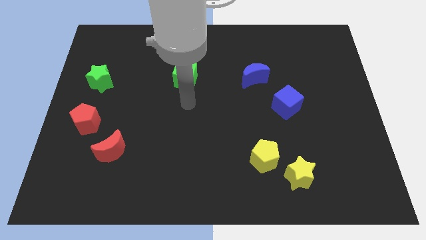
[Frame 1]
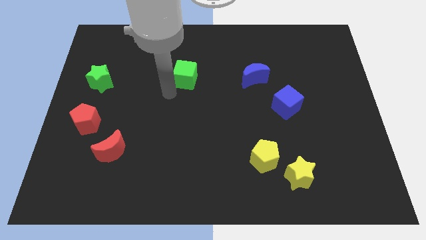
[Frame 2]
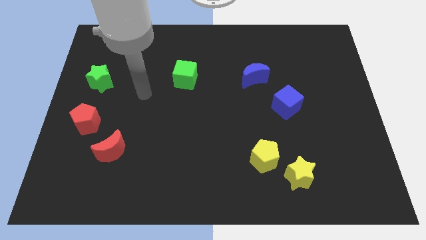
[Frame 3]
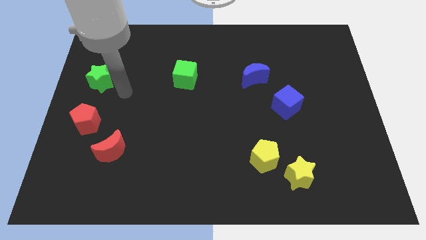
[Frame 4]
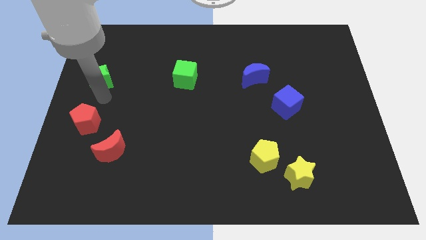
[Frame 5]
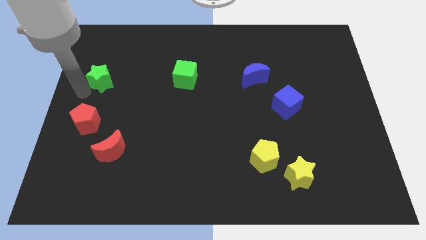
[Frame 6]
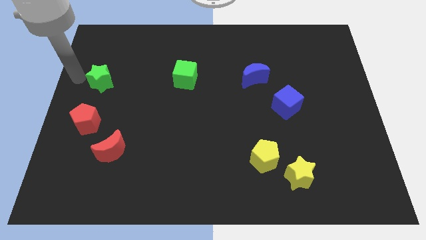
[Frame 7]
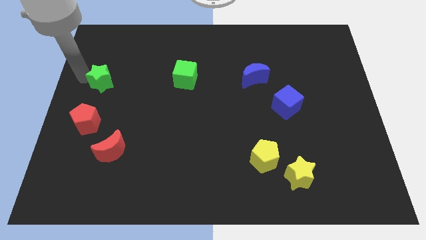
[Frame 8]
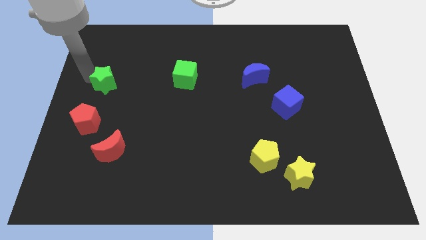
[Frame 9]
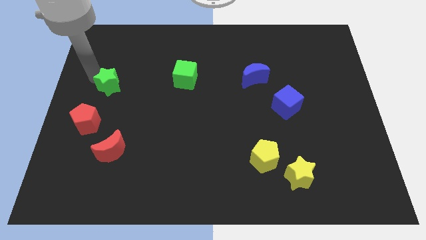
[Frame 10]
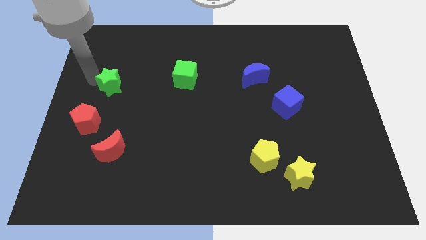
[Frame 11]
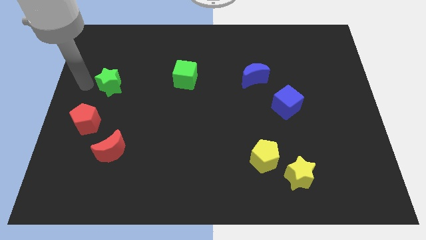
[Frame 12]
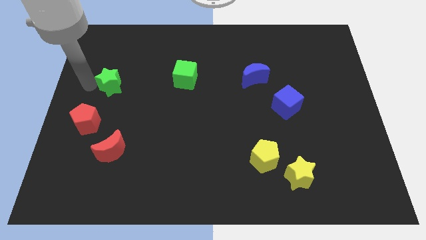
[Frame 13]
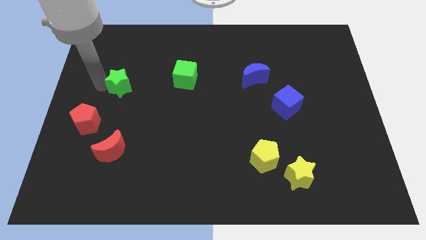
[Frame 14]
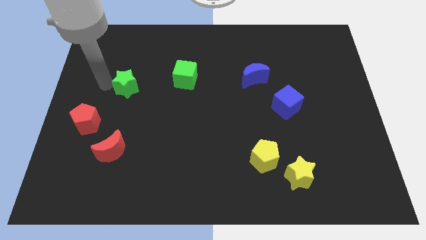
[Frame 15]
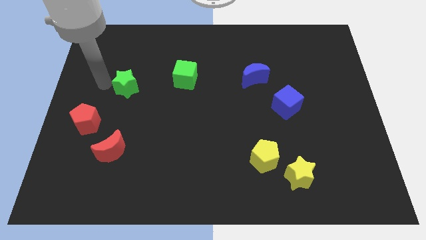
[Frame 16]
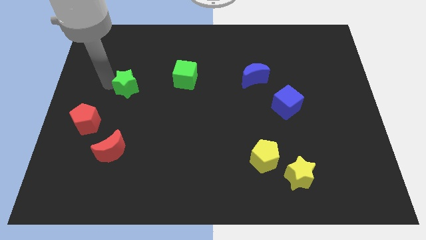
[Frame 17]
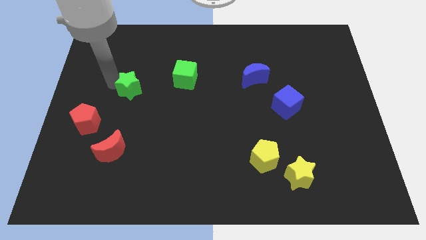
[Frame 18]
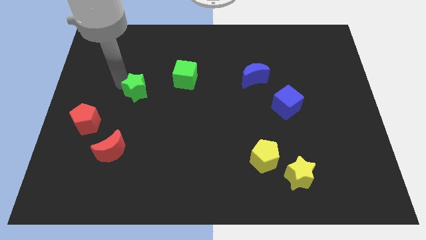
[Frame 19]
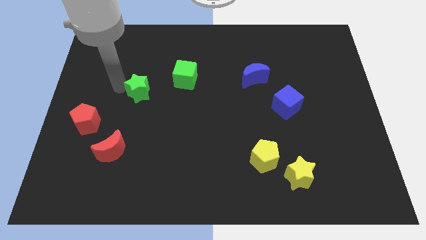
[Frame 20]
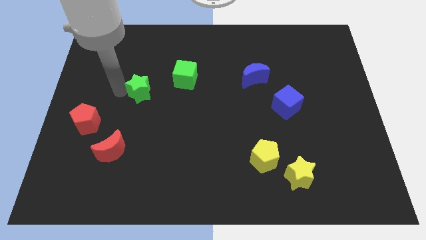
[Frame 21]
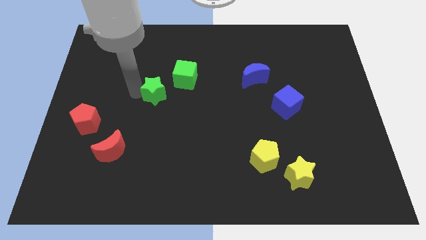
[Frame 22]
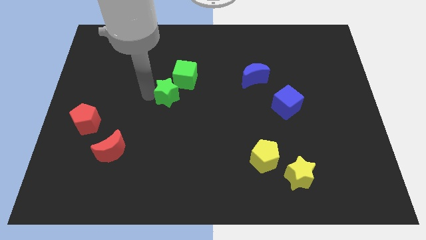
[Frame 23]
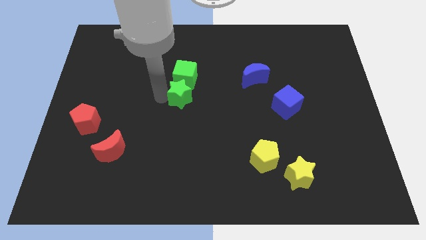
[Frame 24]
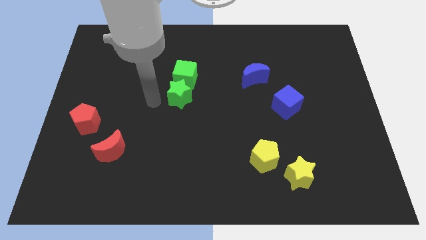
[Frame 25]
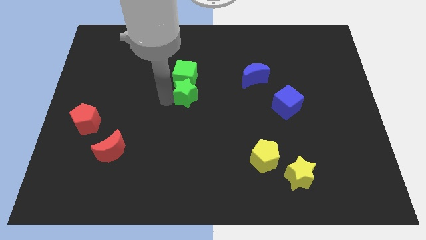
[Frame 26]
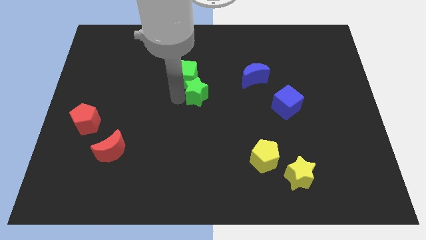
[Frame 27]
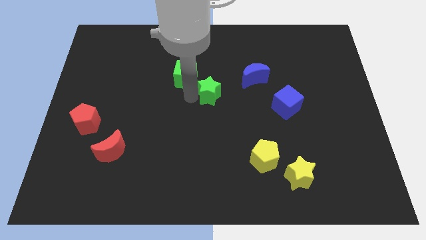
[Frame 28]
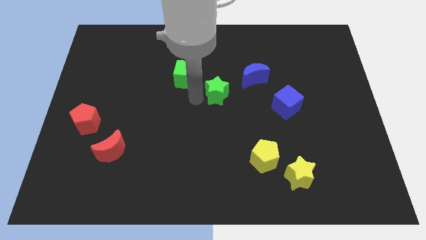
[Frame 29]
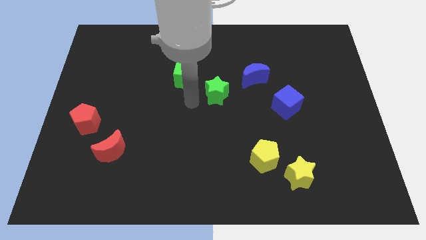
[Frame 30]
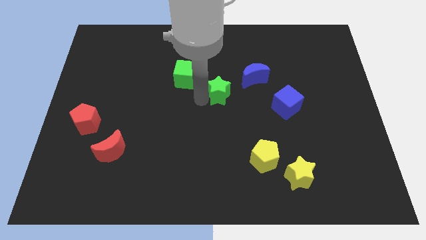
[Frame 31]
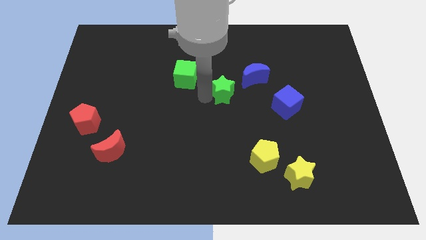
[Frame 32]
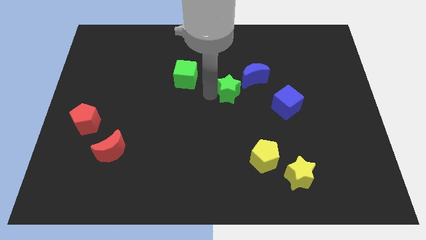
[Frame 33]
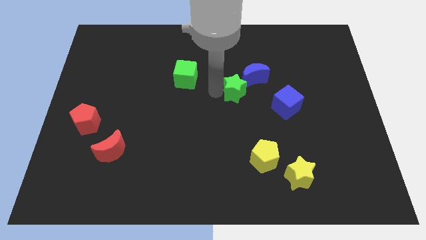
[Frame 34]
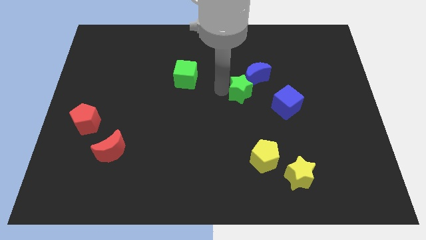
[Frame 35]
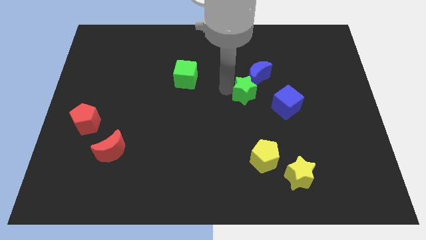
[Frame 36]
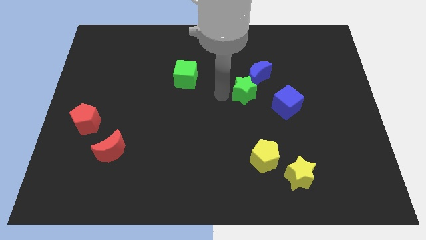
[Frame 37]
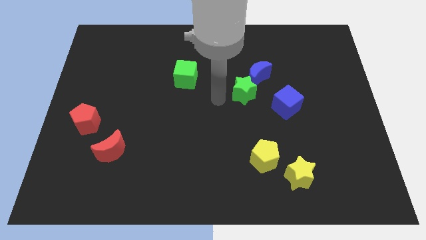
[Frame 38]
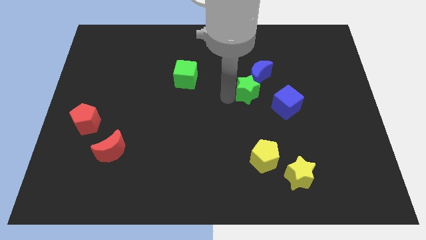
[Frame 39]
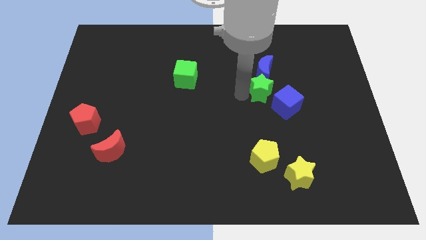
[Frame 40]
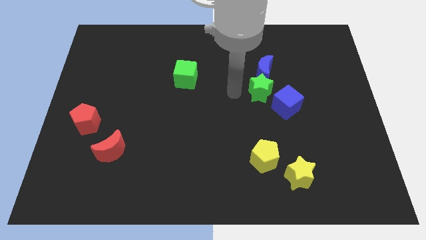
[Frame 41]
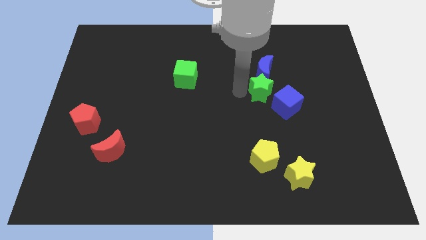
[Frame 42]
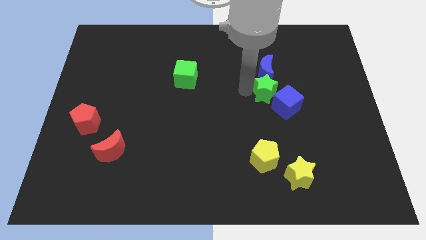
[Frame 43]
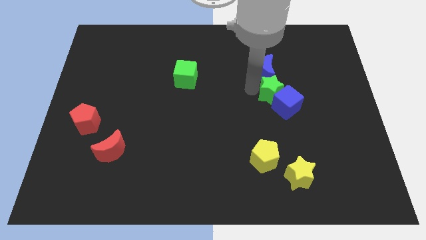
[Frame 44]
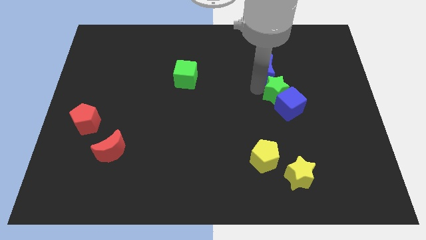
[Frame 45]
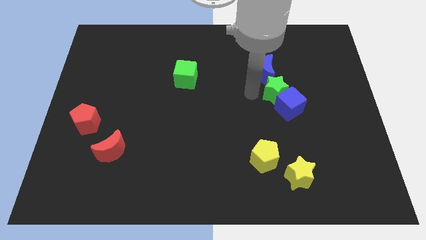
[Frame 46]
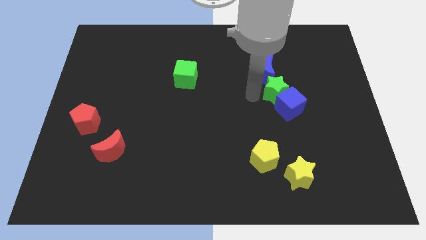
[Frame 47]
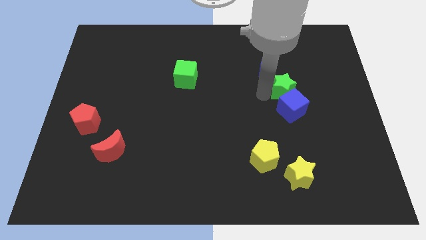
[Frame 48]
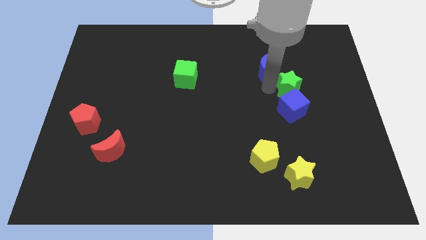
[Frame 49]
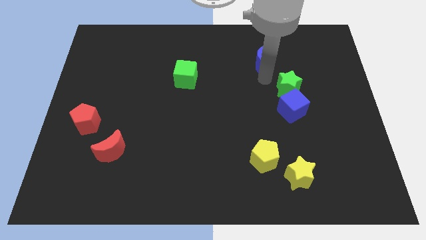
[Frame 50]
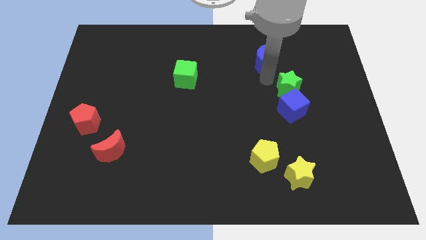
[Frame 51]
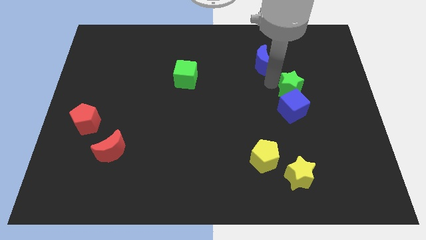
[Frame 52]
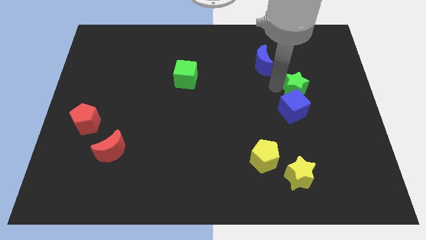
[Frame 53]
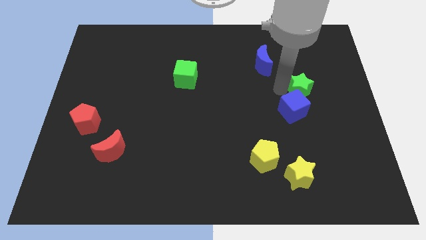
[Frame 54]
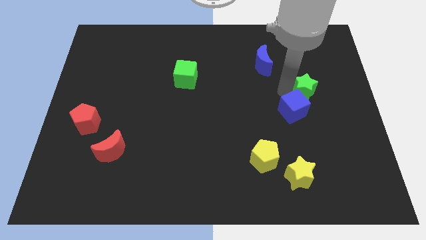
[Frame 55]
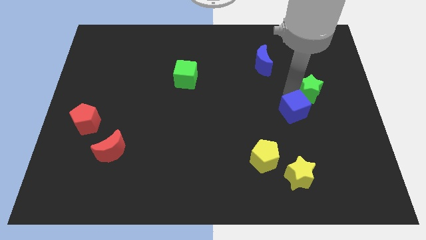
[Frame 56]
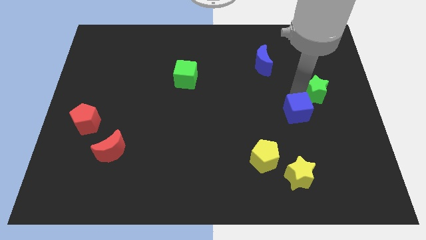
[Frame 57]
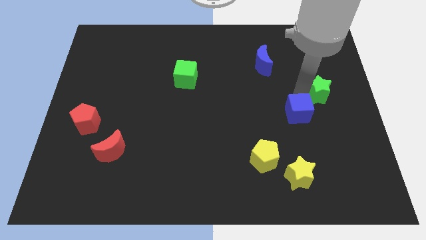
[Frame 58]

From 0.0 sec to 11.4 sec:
slide the green star to the right side
